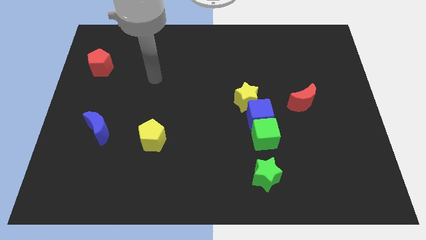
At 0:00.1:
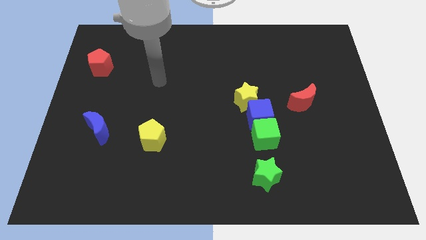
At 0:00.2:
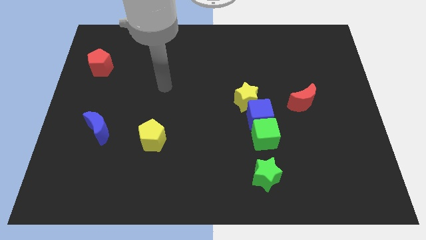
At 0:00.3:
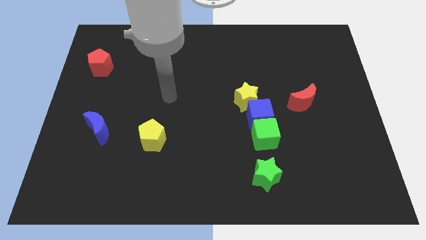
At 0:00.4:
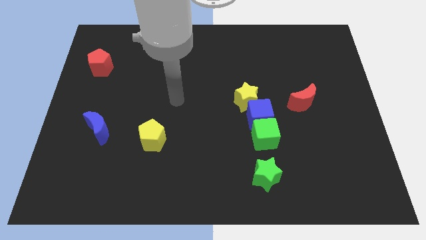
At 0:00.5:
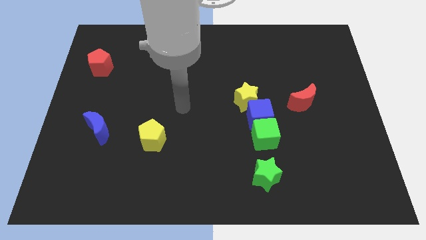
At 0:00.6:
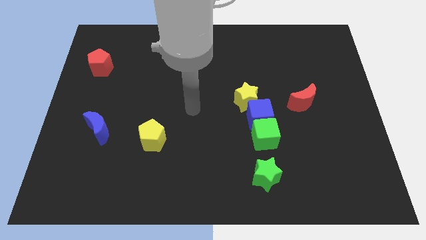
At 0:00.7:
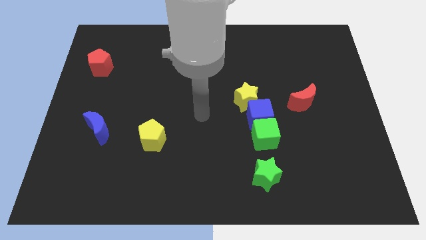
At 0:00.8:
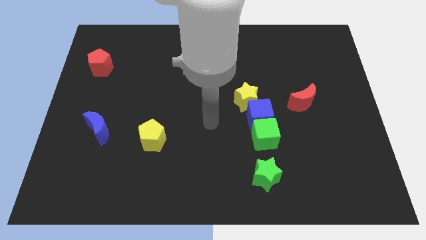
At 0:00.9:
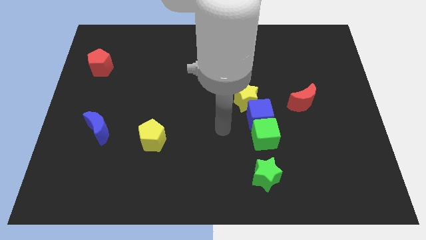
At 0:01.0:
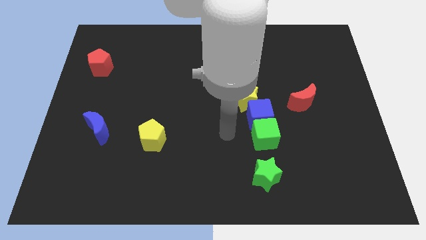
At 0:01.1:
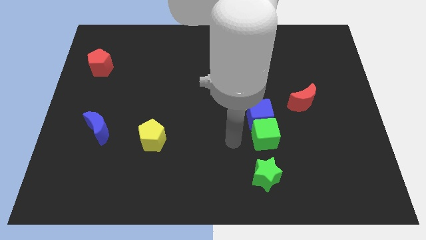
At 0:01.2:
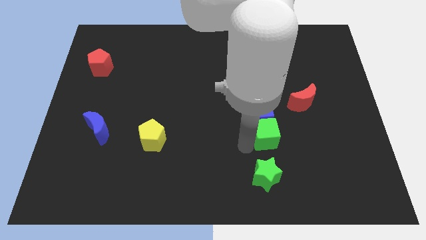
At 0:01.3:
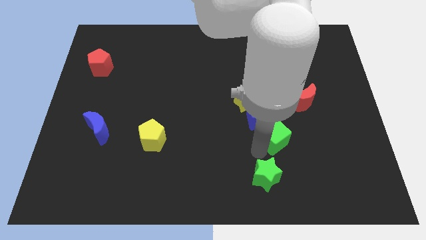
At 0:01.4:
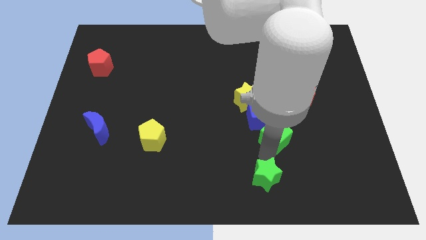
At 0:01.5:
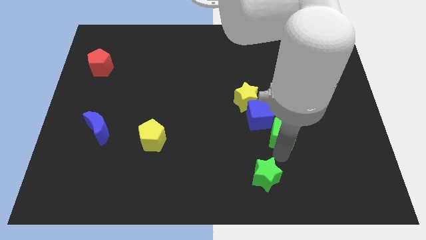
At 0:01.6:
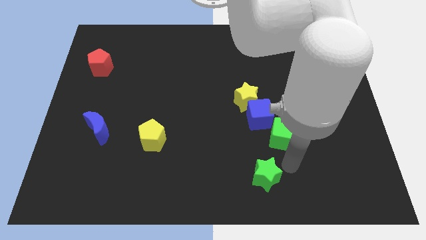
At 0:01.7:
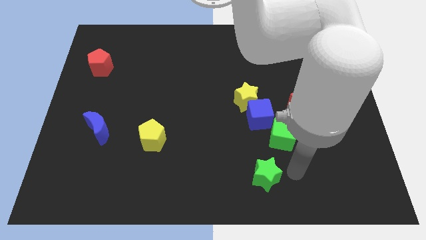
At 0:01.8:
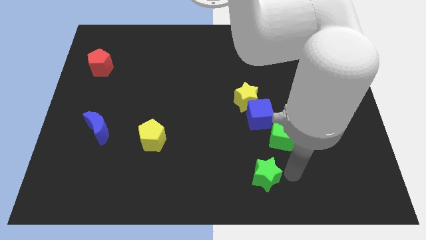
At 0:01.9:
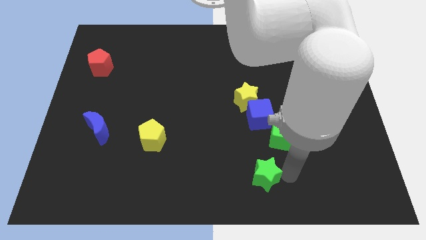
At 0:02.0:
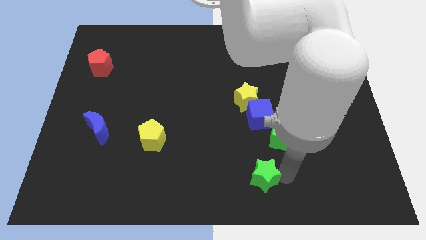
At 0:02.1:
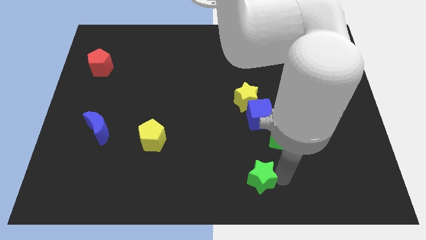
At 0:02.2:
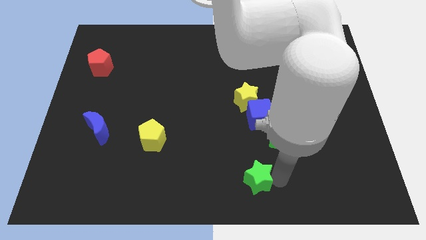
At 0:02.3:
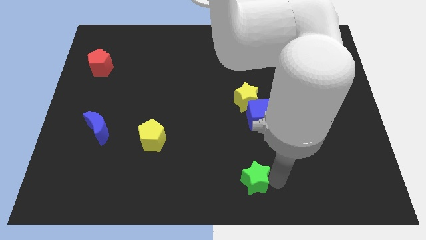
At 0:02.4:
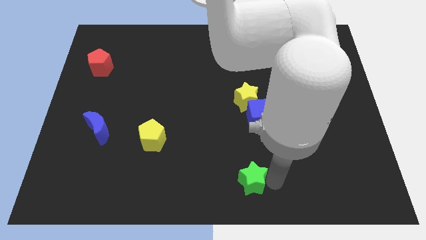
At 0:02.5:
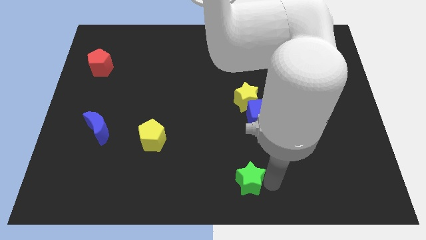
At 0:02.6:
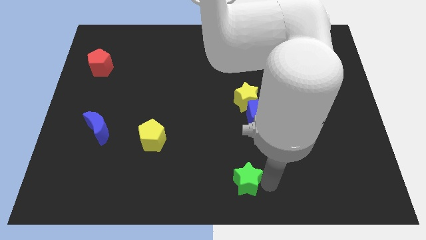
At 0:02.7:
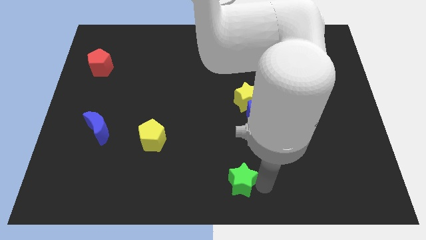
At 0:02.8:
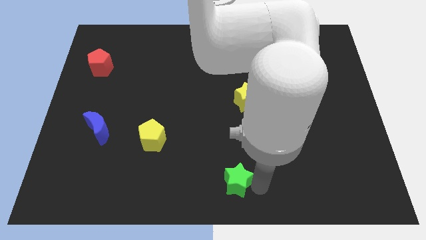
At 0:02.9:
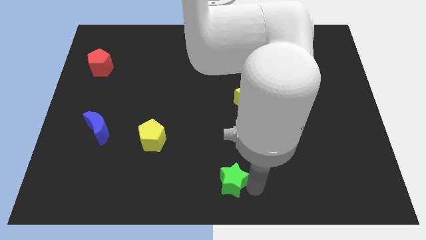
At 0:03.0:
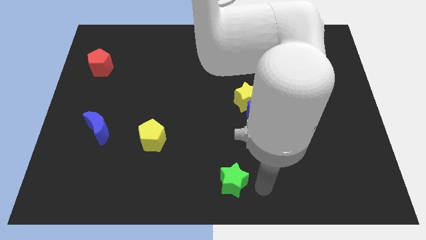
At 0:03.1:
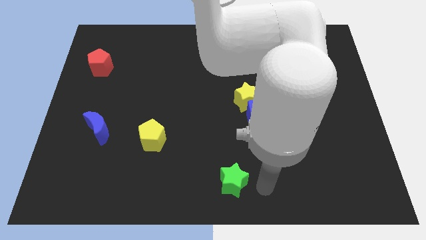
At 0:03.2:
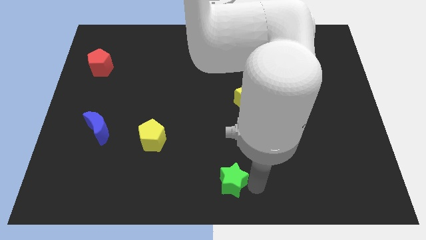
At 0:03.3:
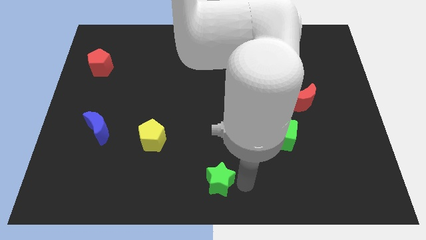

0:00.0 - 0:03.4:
slightly move the green star to the left

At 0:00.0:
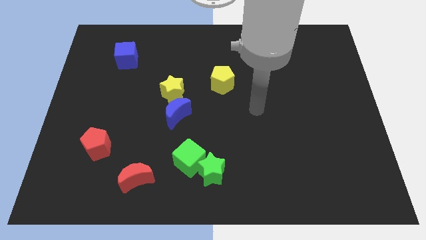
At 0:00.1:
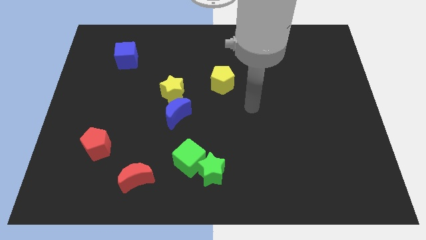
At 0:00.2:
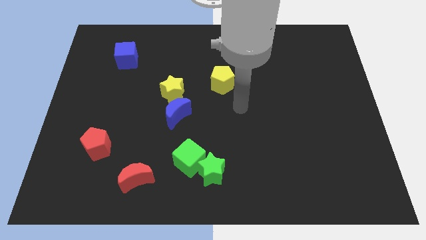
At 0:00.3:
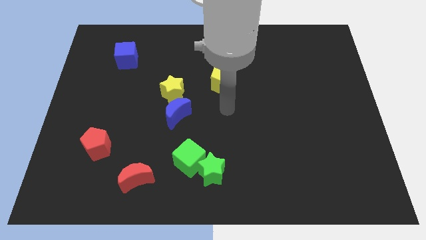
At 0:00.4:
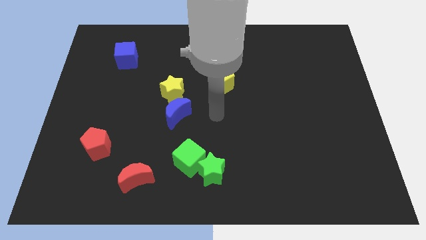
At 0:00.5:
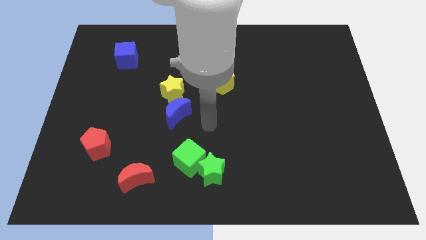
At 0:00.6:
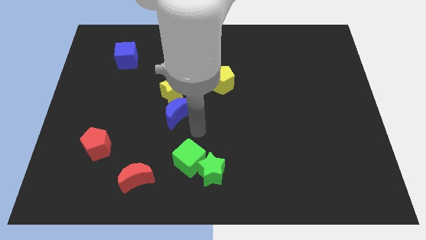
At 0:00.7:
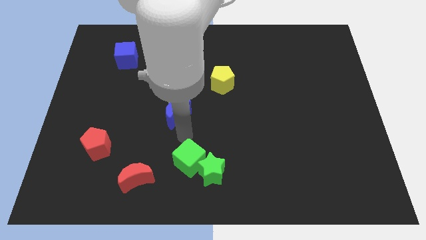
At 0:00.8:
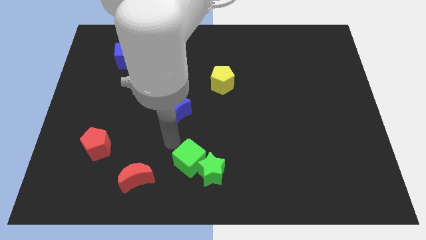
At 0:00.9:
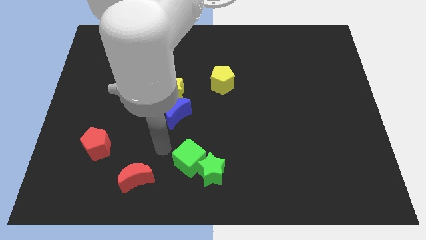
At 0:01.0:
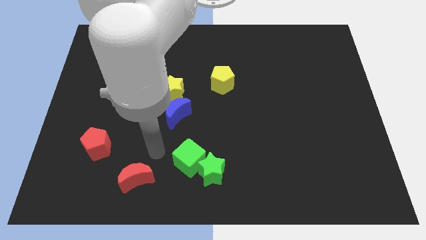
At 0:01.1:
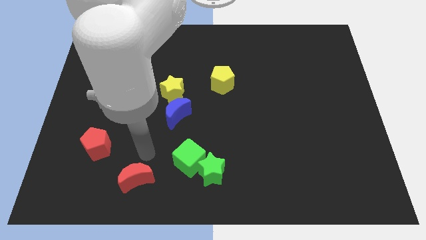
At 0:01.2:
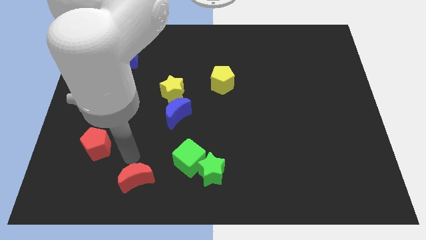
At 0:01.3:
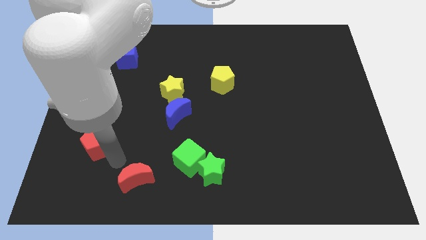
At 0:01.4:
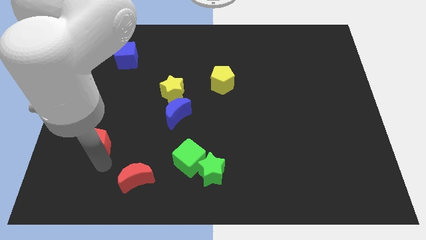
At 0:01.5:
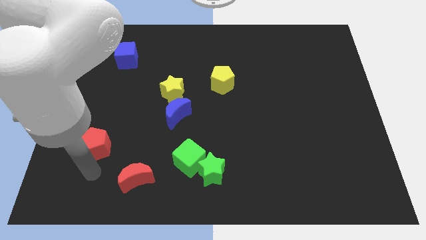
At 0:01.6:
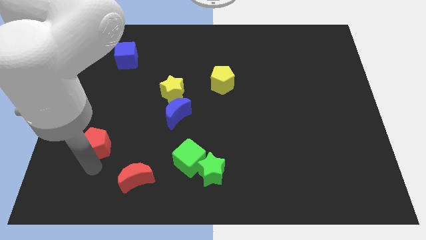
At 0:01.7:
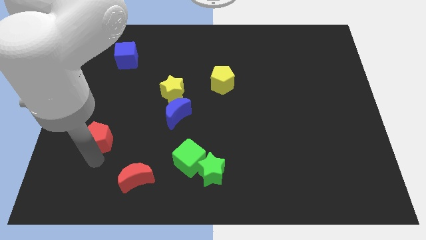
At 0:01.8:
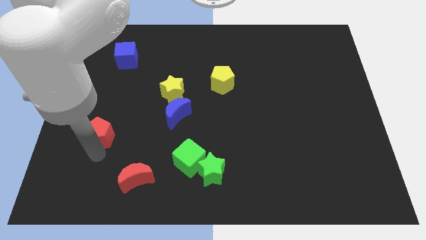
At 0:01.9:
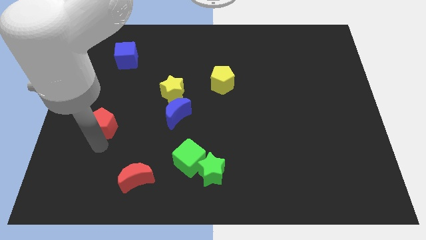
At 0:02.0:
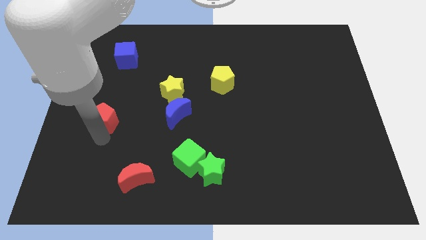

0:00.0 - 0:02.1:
move the red pentagon upwards a little

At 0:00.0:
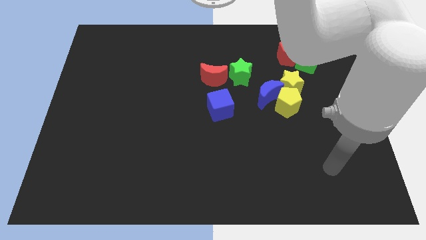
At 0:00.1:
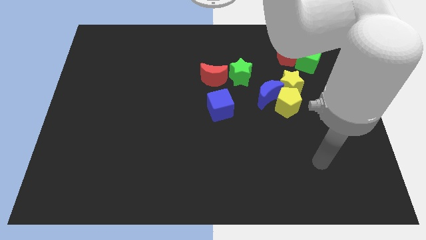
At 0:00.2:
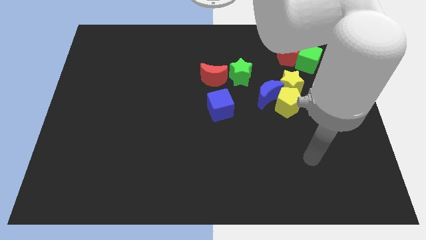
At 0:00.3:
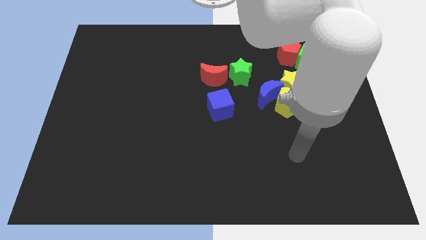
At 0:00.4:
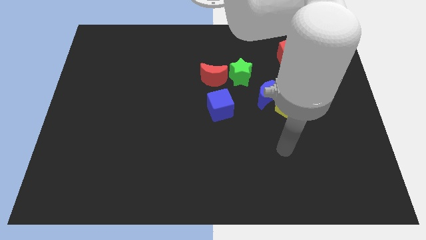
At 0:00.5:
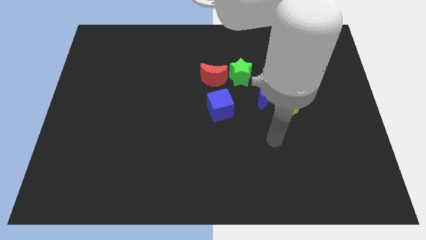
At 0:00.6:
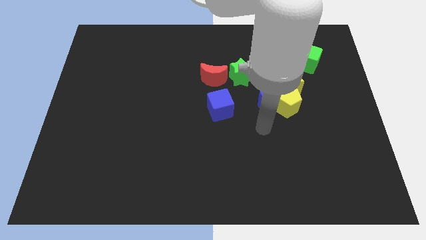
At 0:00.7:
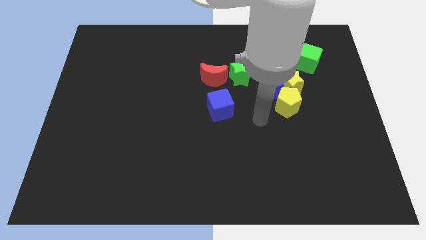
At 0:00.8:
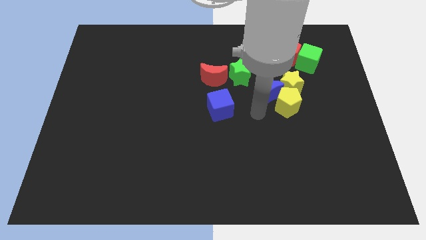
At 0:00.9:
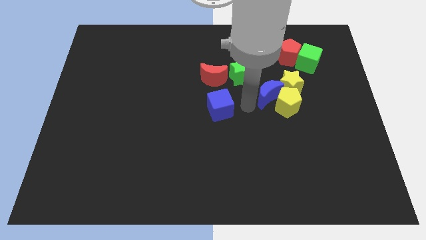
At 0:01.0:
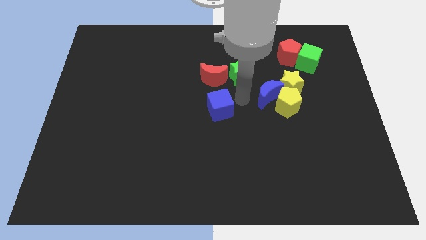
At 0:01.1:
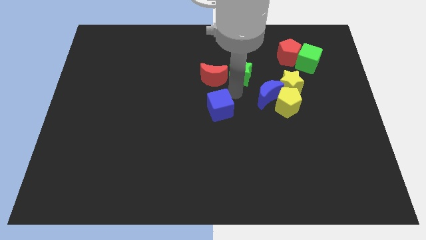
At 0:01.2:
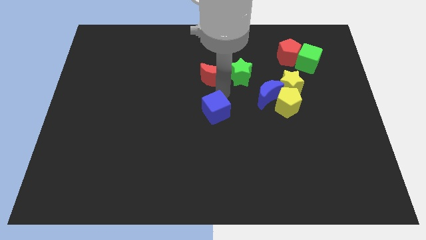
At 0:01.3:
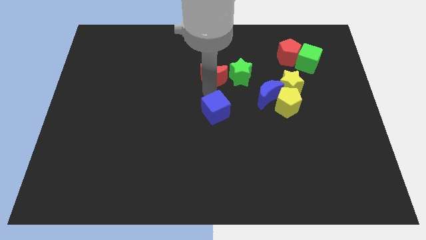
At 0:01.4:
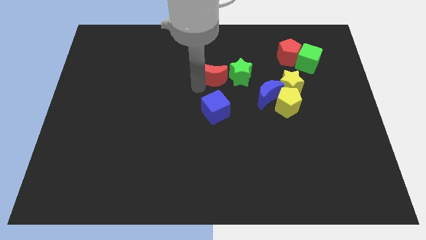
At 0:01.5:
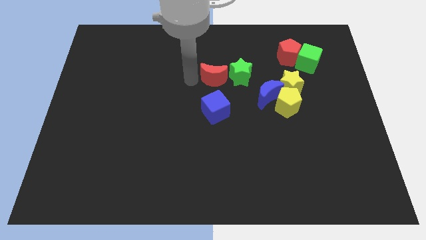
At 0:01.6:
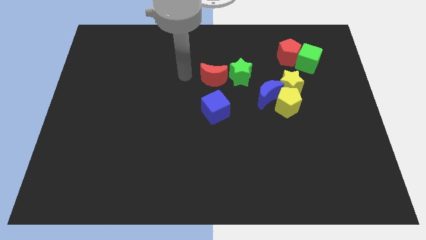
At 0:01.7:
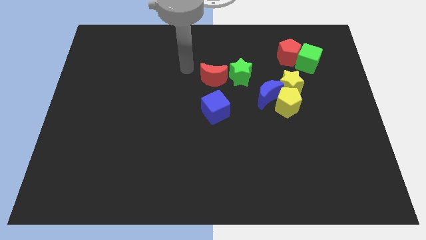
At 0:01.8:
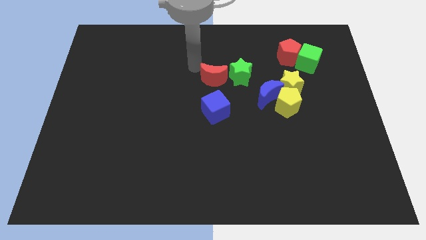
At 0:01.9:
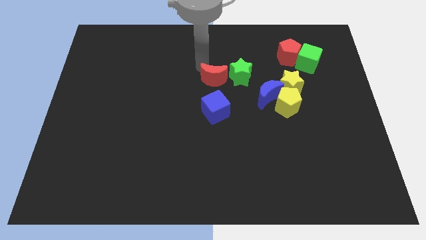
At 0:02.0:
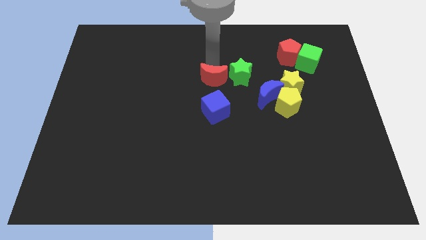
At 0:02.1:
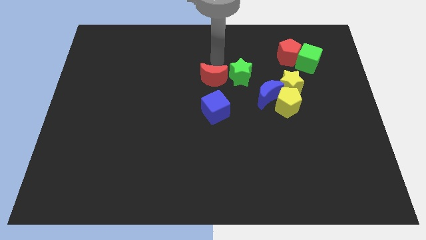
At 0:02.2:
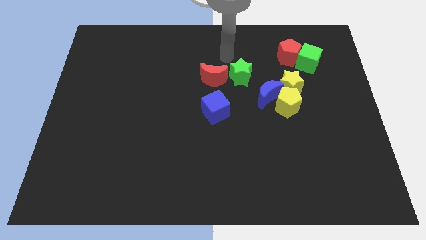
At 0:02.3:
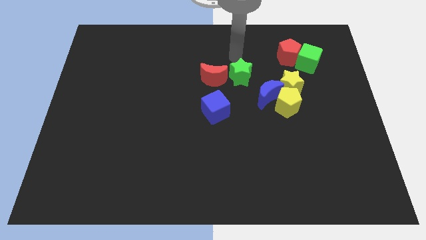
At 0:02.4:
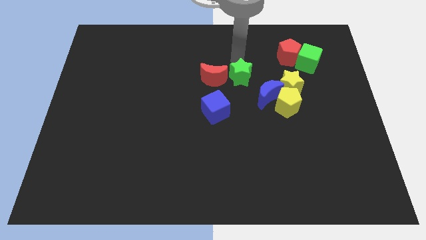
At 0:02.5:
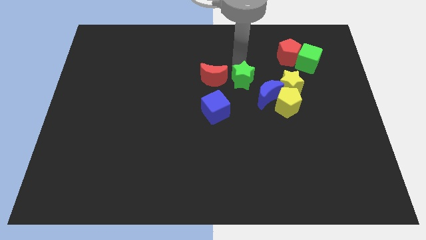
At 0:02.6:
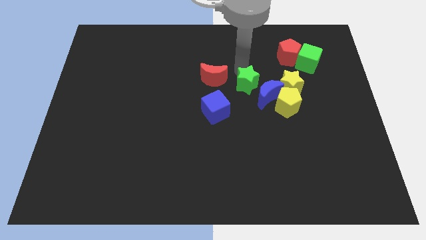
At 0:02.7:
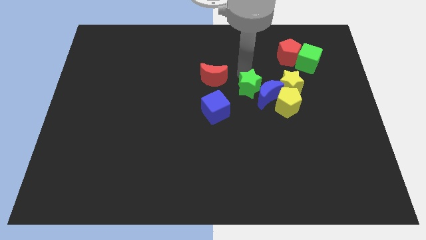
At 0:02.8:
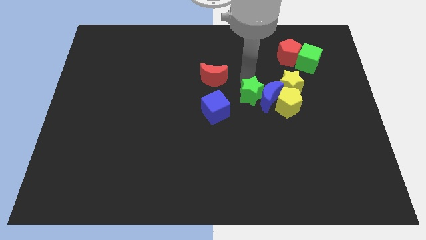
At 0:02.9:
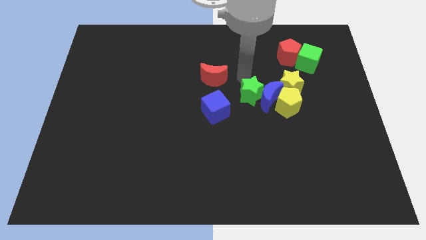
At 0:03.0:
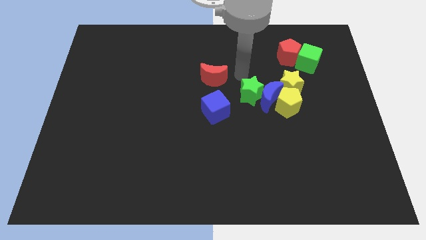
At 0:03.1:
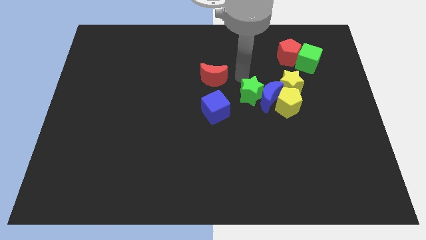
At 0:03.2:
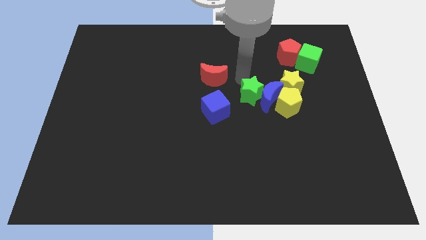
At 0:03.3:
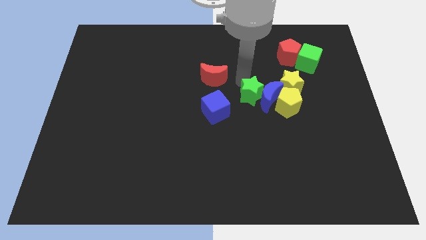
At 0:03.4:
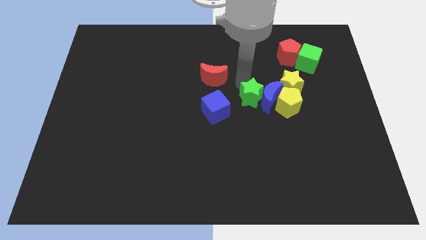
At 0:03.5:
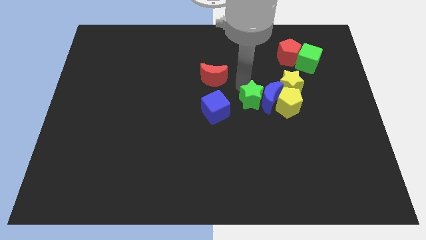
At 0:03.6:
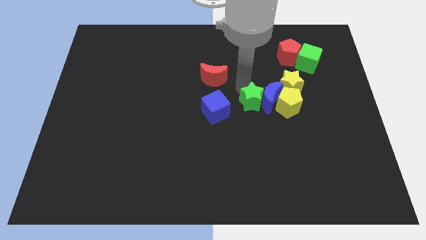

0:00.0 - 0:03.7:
move the green star downwards and right diagonally a bit
